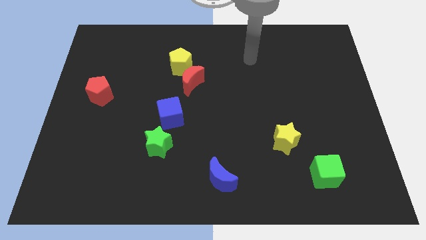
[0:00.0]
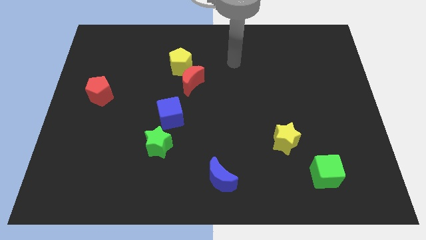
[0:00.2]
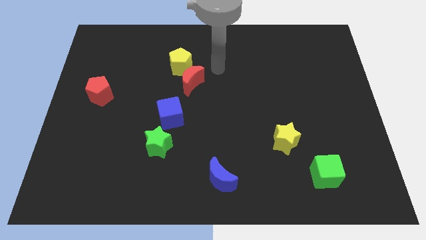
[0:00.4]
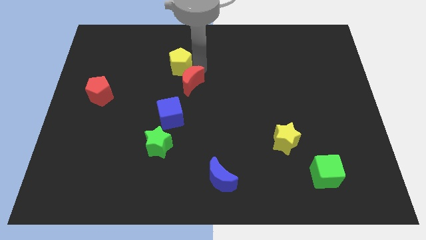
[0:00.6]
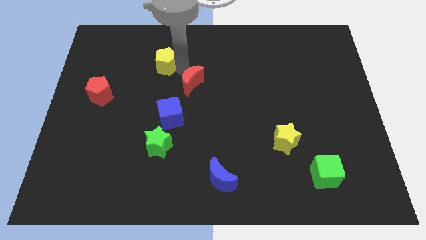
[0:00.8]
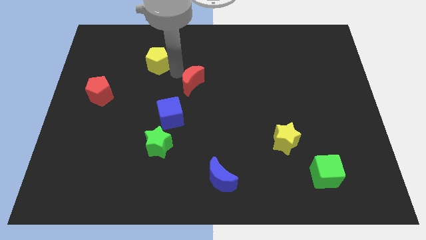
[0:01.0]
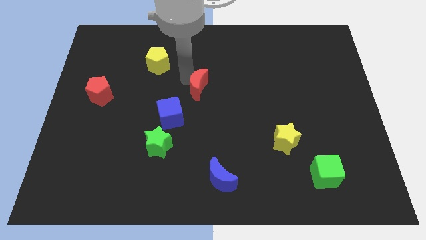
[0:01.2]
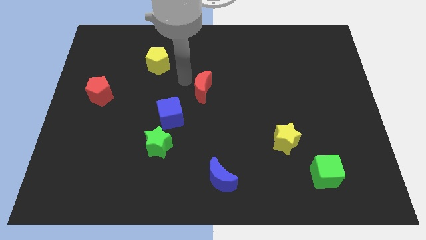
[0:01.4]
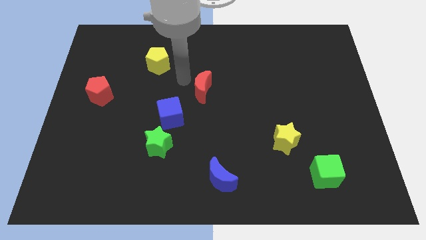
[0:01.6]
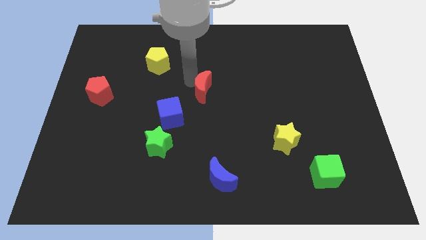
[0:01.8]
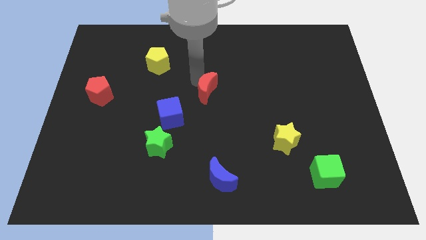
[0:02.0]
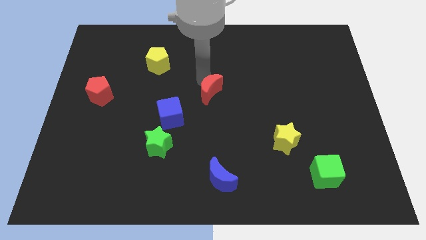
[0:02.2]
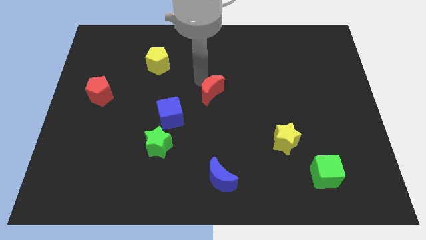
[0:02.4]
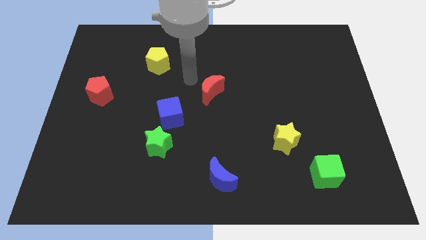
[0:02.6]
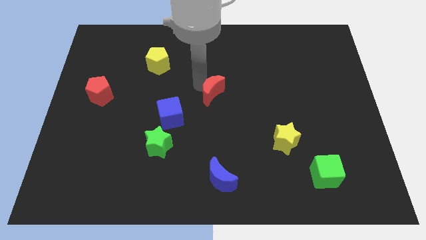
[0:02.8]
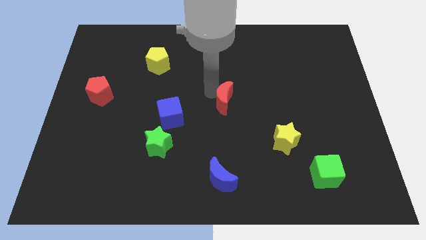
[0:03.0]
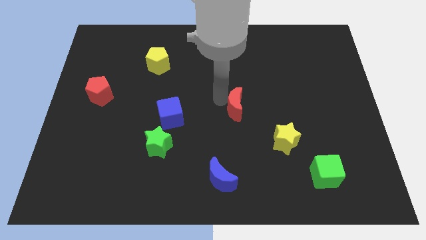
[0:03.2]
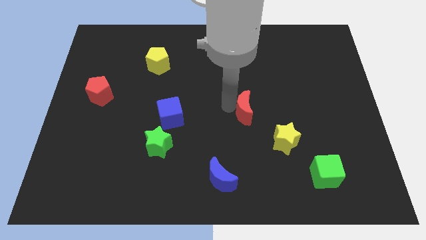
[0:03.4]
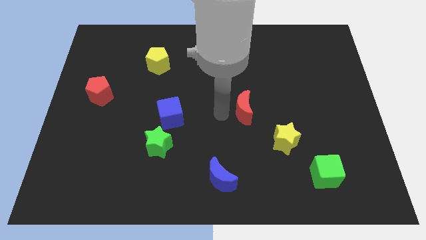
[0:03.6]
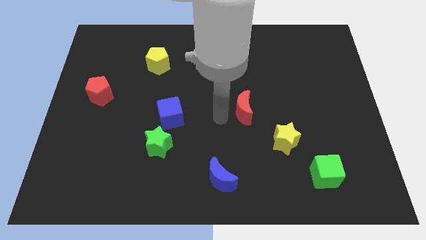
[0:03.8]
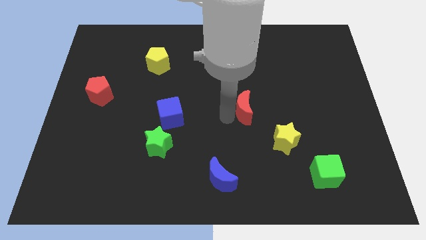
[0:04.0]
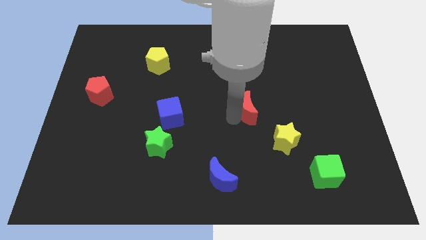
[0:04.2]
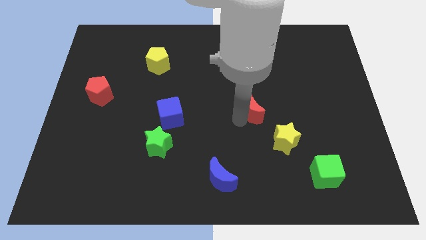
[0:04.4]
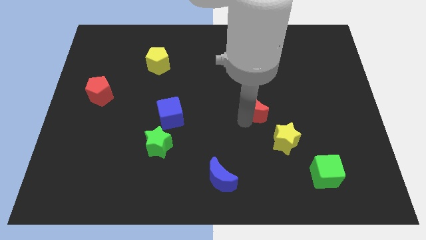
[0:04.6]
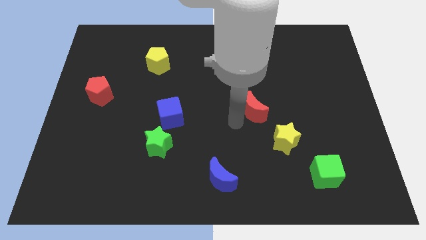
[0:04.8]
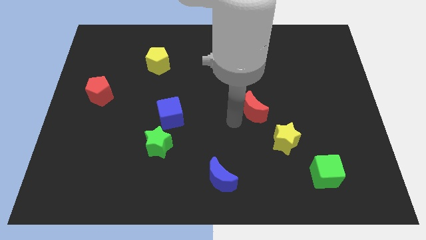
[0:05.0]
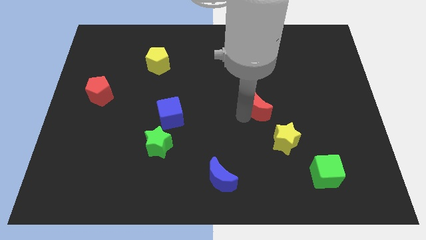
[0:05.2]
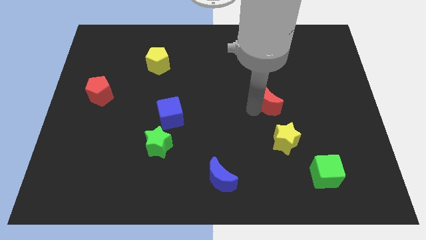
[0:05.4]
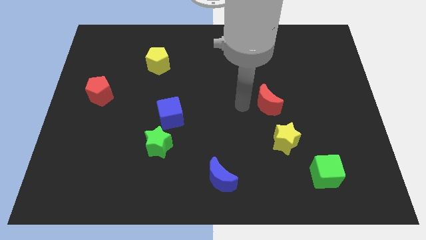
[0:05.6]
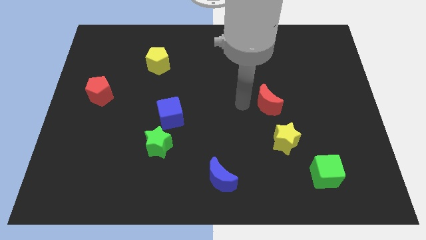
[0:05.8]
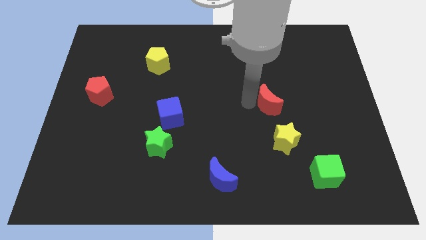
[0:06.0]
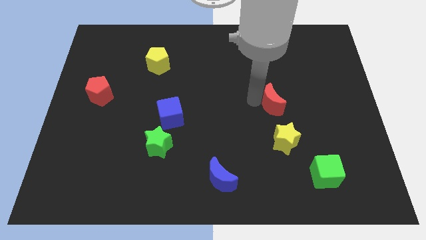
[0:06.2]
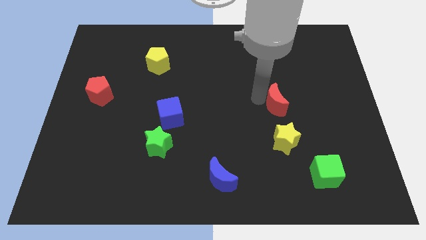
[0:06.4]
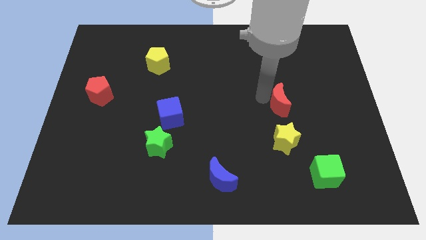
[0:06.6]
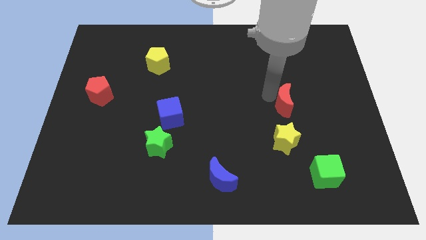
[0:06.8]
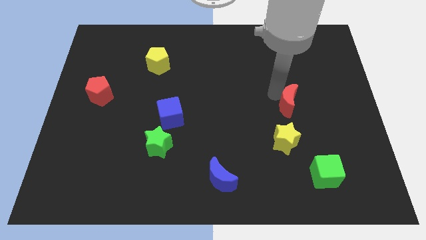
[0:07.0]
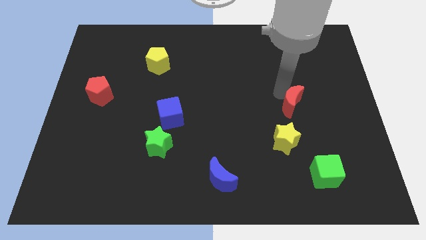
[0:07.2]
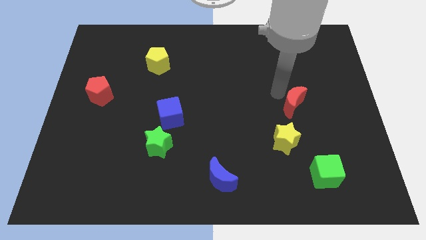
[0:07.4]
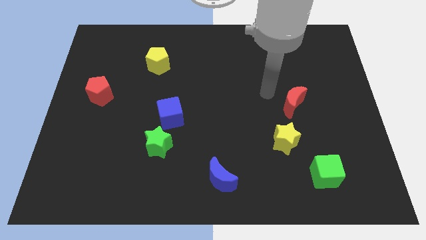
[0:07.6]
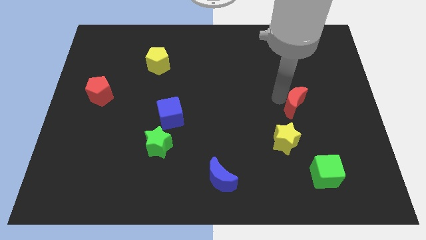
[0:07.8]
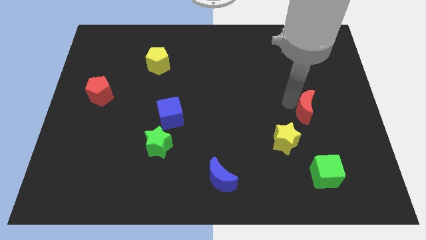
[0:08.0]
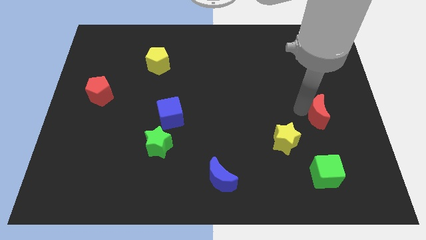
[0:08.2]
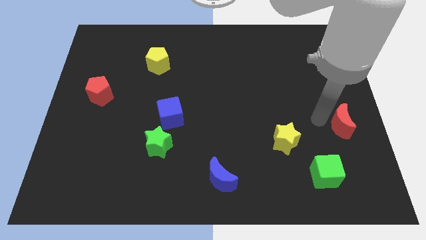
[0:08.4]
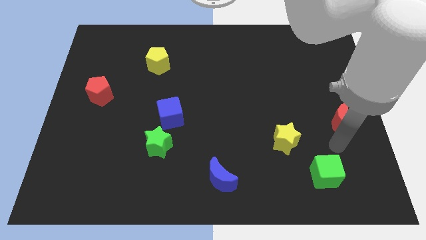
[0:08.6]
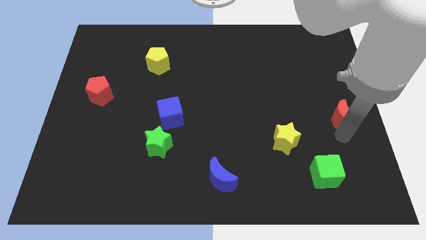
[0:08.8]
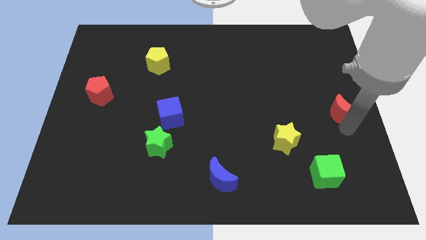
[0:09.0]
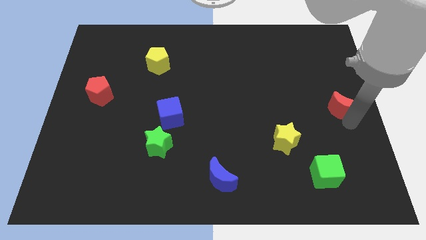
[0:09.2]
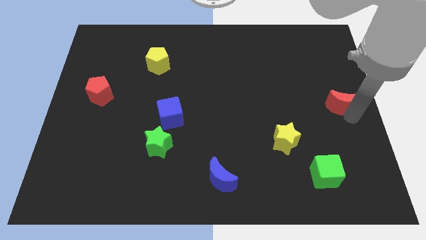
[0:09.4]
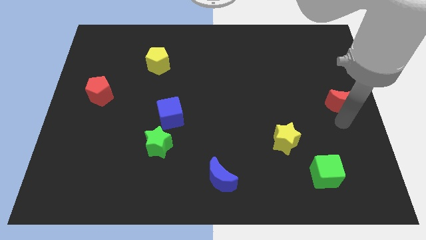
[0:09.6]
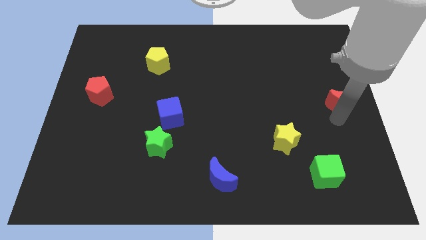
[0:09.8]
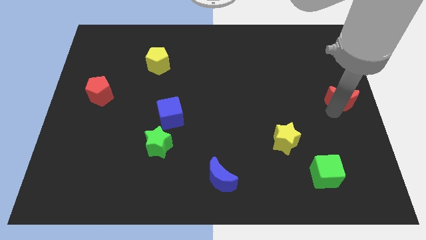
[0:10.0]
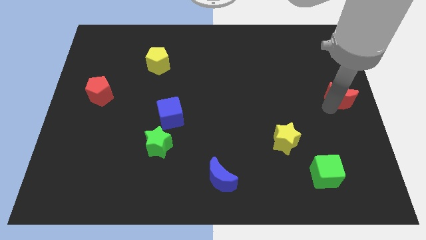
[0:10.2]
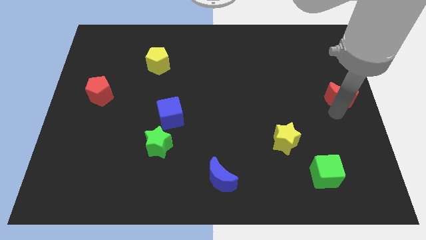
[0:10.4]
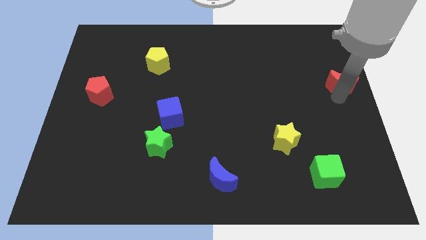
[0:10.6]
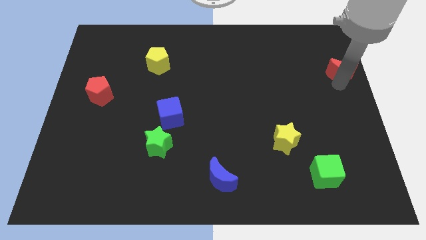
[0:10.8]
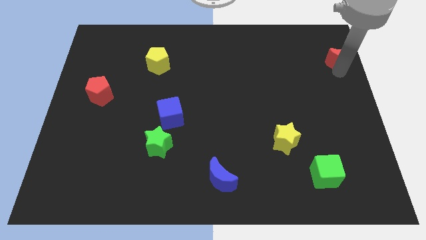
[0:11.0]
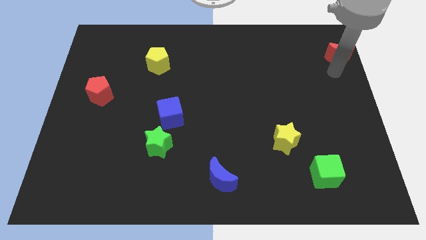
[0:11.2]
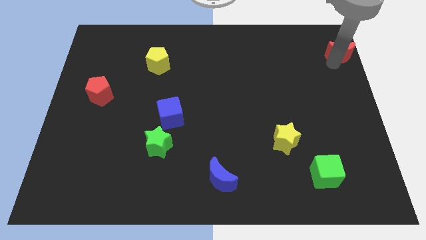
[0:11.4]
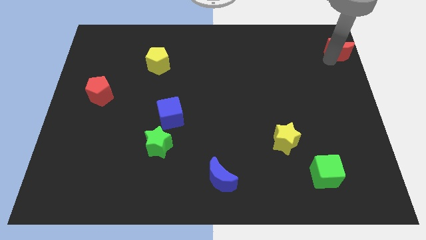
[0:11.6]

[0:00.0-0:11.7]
move the red moon to the top right
